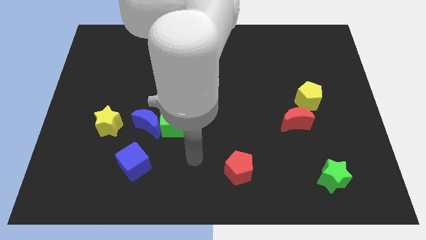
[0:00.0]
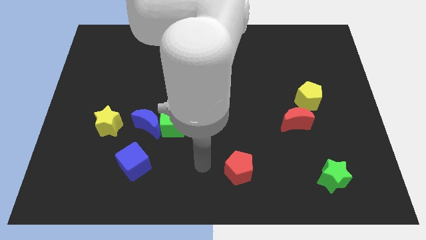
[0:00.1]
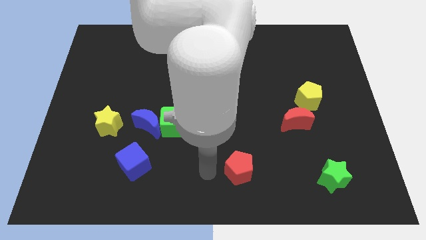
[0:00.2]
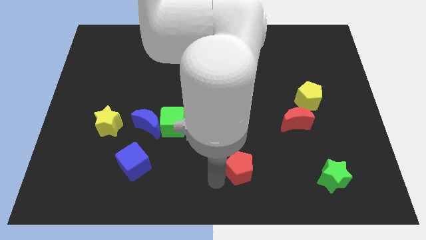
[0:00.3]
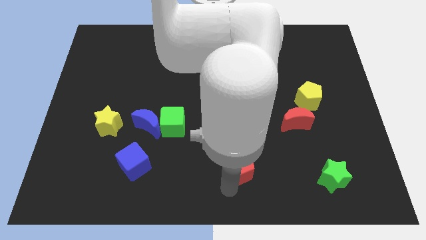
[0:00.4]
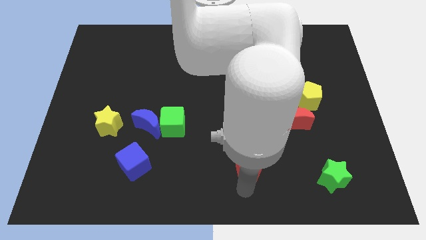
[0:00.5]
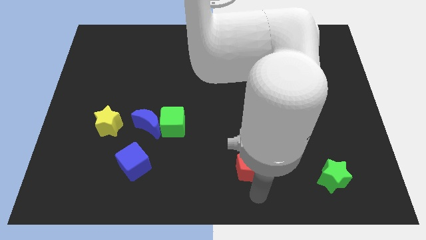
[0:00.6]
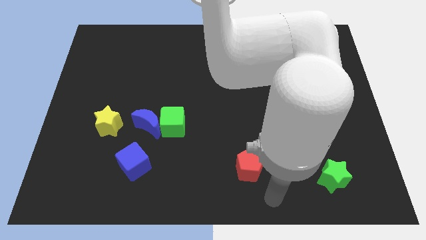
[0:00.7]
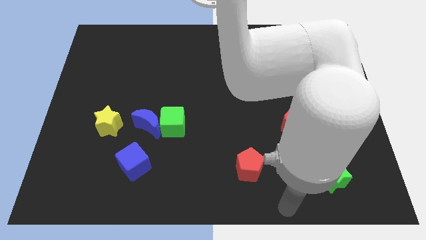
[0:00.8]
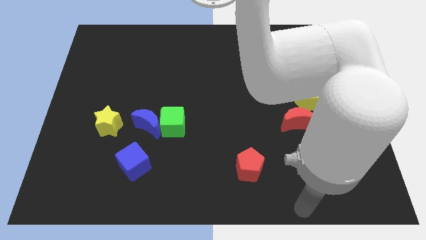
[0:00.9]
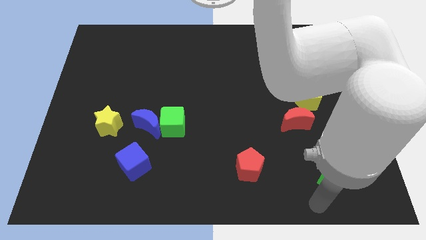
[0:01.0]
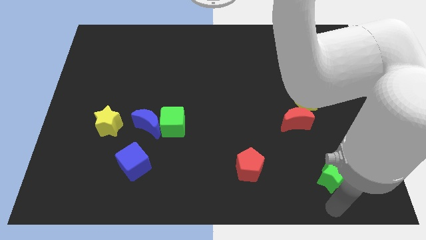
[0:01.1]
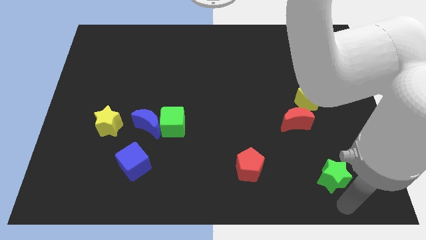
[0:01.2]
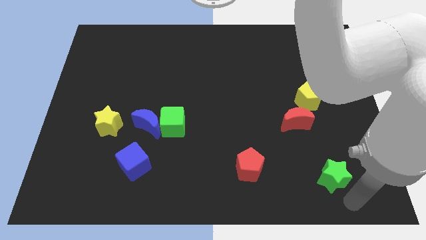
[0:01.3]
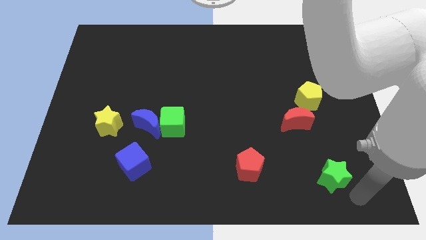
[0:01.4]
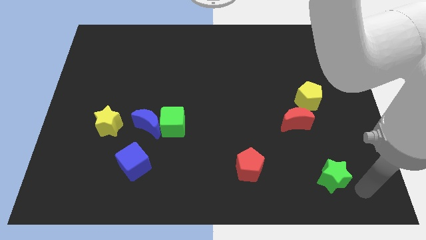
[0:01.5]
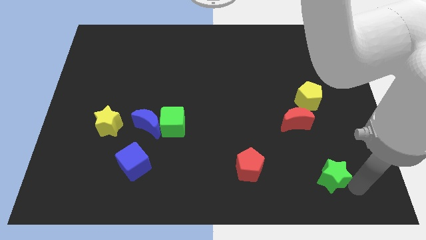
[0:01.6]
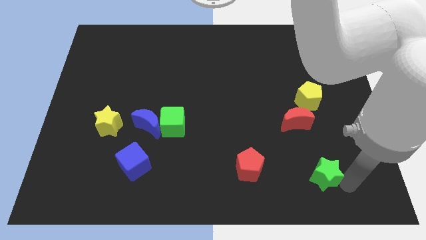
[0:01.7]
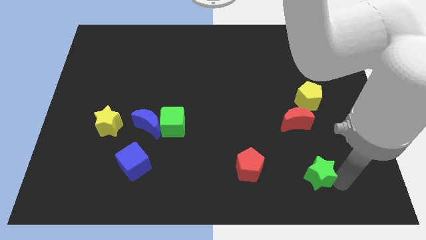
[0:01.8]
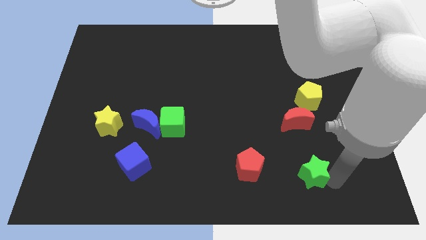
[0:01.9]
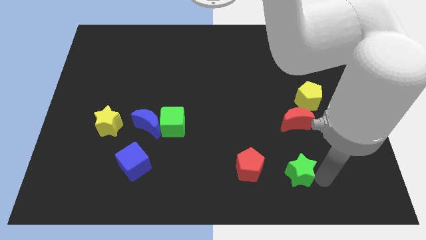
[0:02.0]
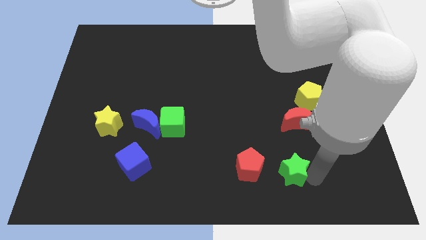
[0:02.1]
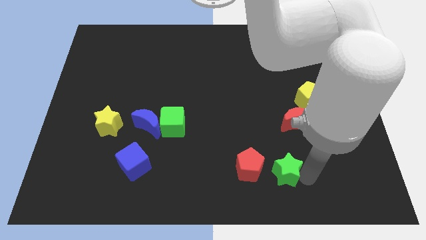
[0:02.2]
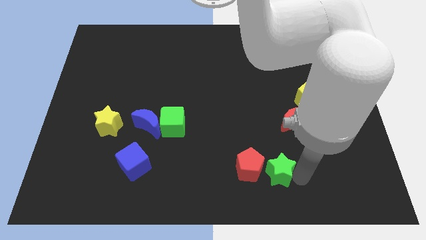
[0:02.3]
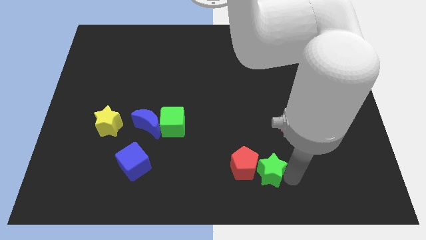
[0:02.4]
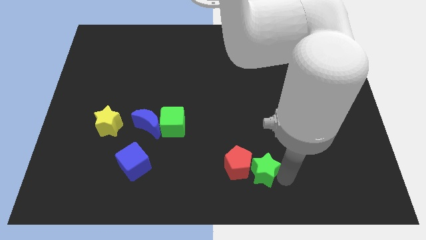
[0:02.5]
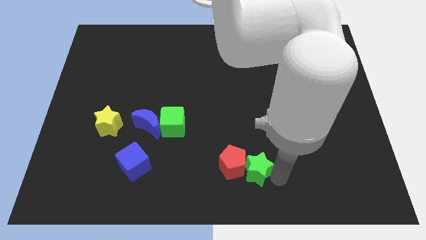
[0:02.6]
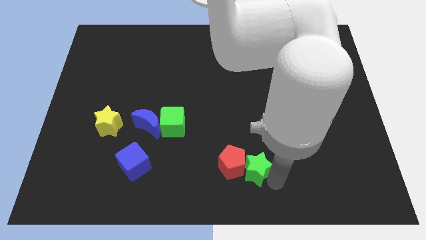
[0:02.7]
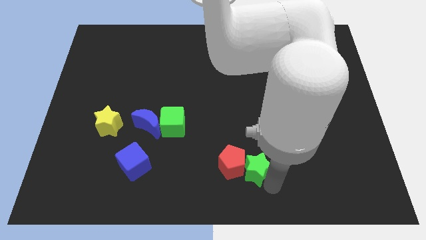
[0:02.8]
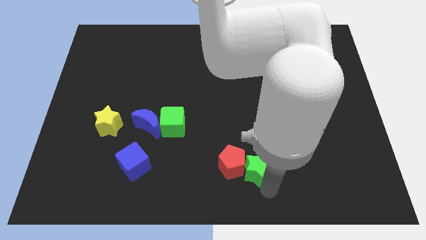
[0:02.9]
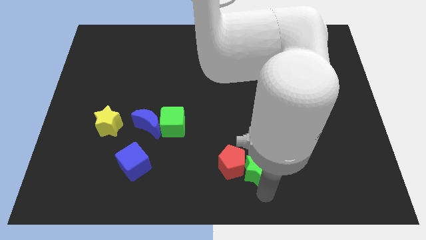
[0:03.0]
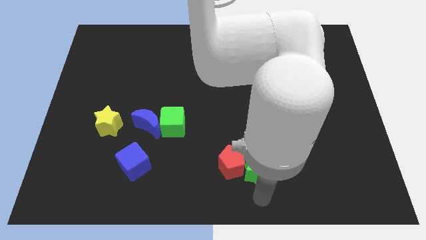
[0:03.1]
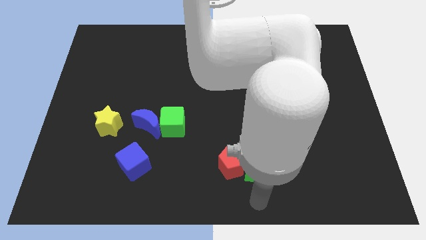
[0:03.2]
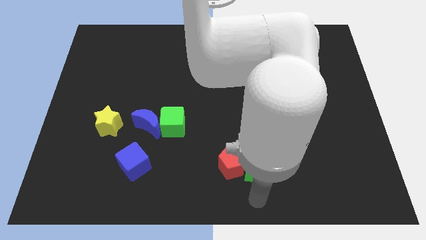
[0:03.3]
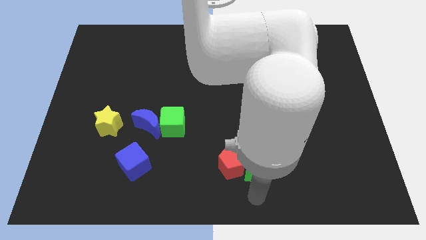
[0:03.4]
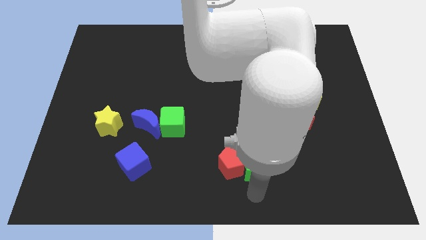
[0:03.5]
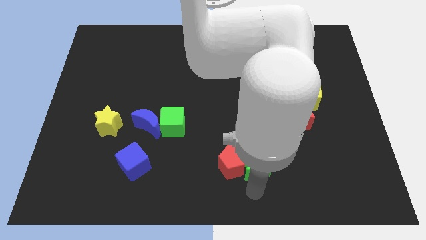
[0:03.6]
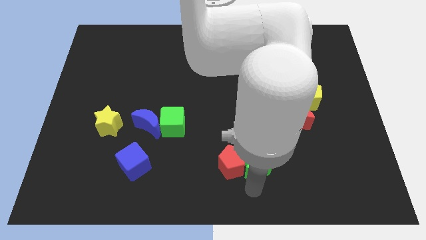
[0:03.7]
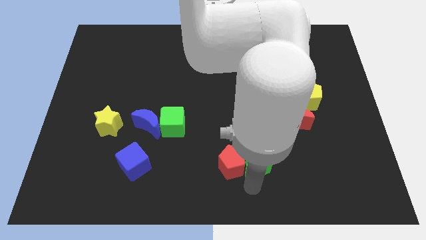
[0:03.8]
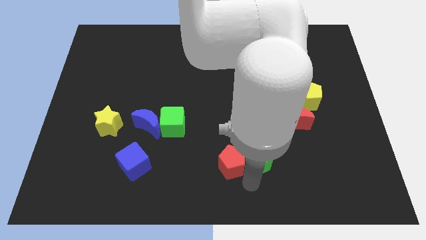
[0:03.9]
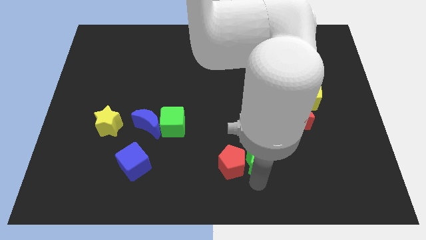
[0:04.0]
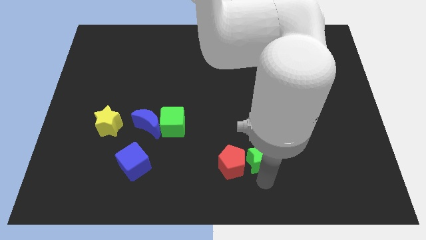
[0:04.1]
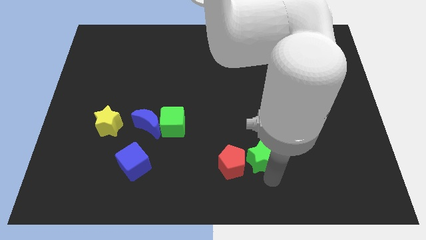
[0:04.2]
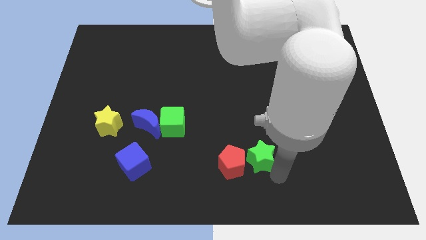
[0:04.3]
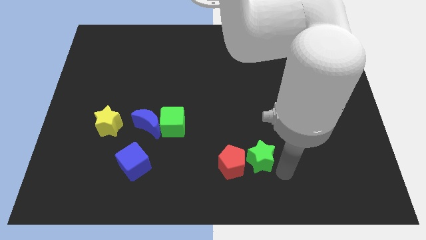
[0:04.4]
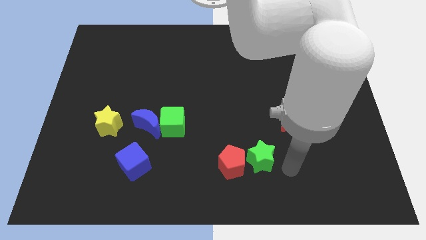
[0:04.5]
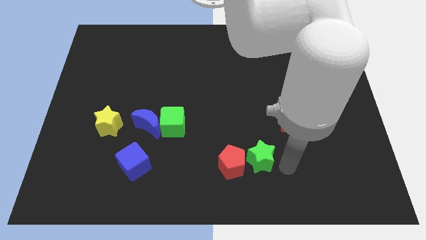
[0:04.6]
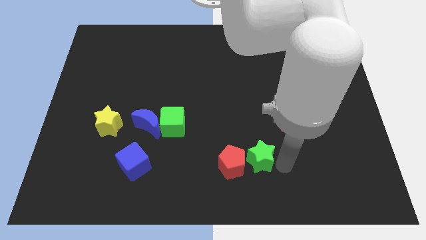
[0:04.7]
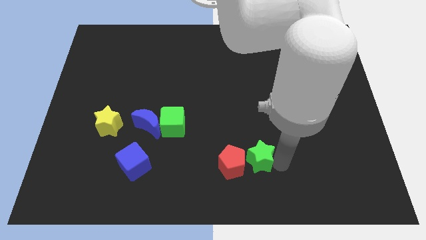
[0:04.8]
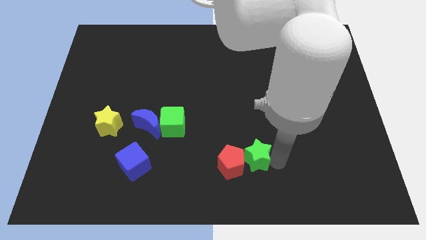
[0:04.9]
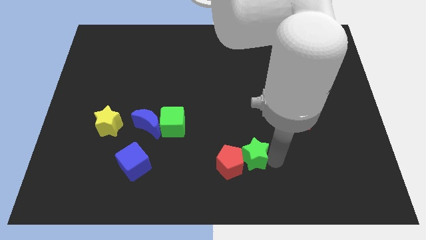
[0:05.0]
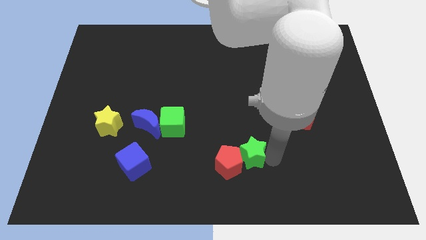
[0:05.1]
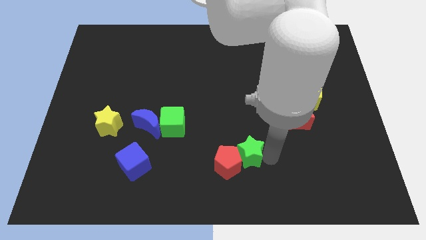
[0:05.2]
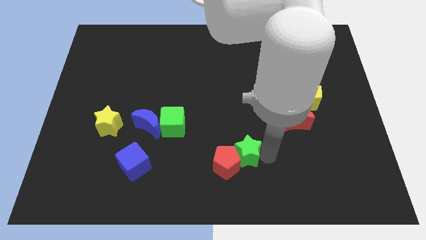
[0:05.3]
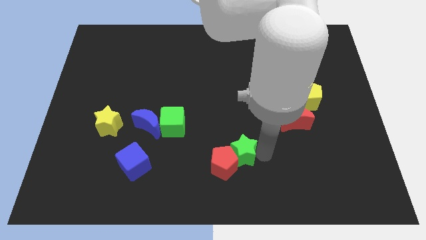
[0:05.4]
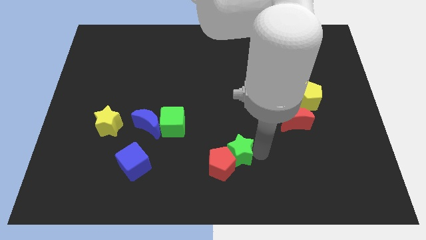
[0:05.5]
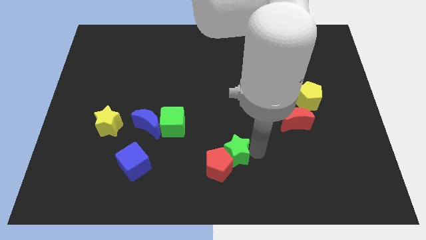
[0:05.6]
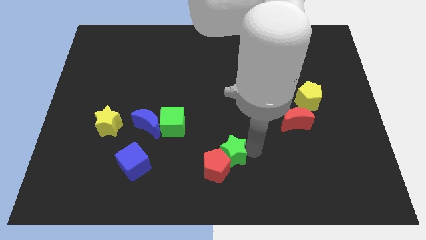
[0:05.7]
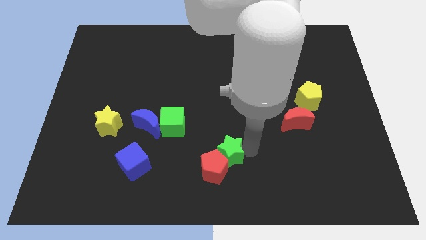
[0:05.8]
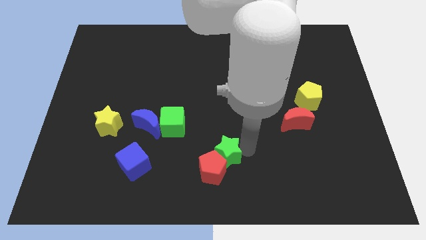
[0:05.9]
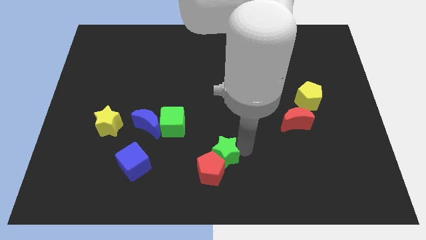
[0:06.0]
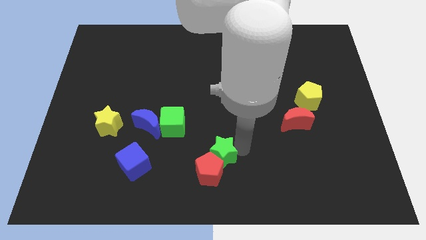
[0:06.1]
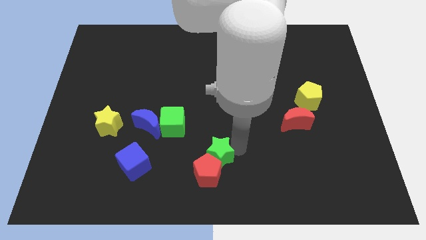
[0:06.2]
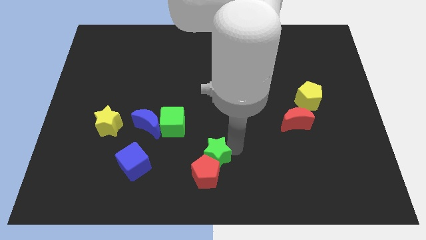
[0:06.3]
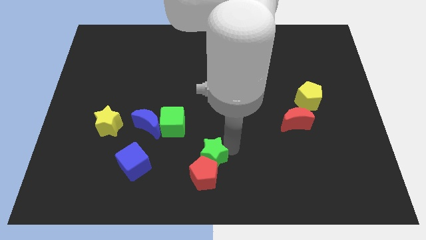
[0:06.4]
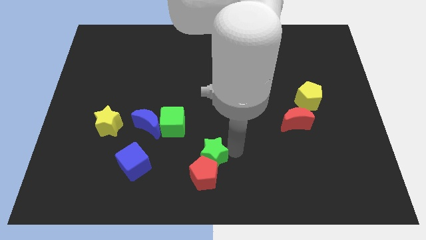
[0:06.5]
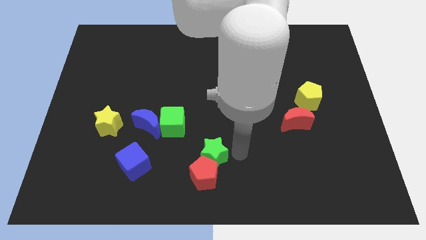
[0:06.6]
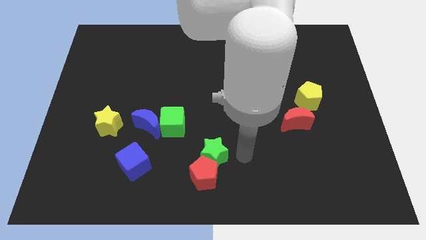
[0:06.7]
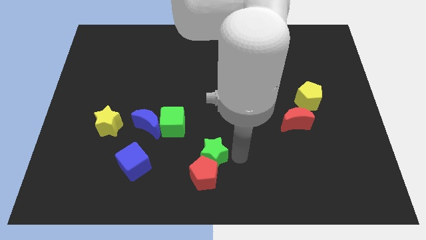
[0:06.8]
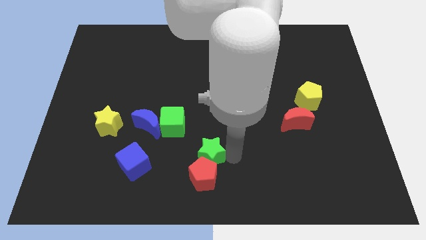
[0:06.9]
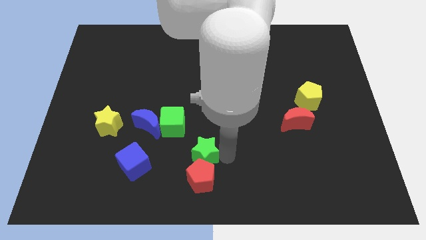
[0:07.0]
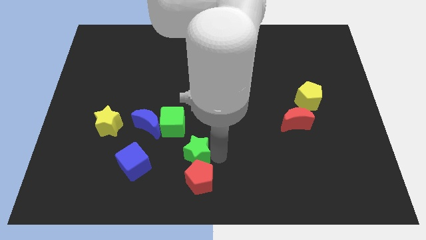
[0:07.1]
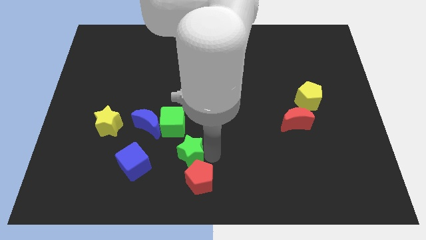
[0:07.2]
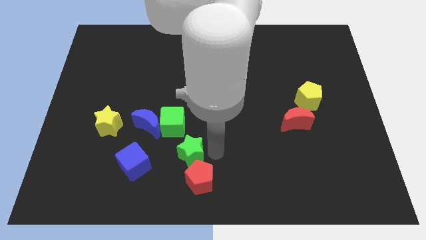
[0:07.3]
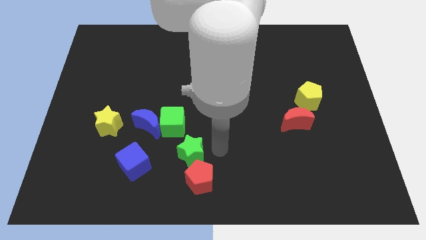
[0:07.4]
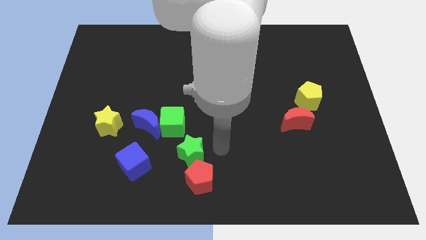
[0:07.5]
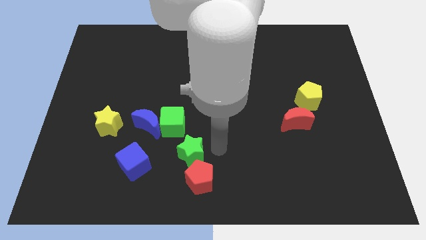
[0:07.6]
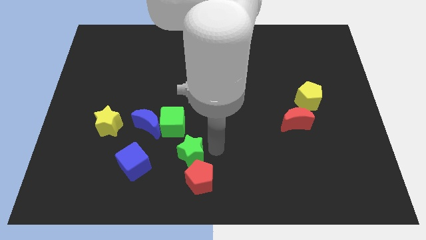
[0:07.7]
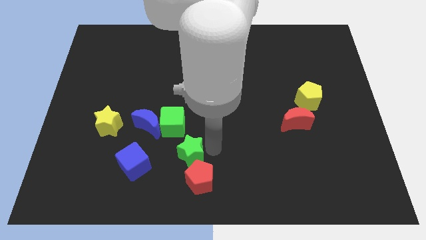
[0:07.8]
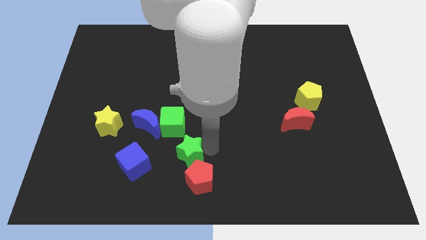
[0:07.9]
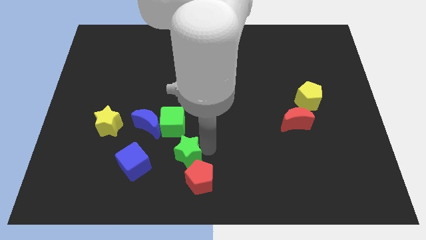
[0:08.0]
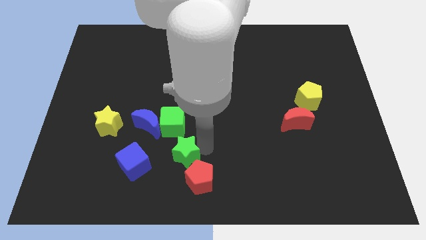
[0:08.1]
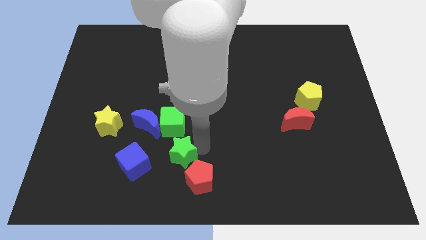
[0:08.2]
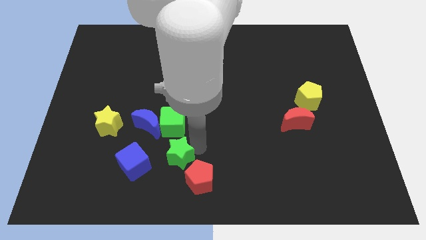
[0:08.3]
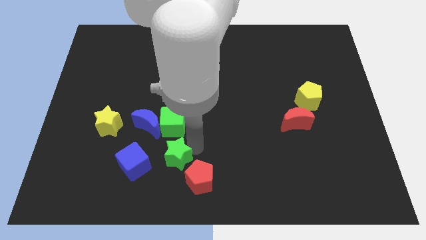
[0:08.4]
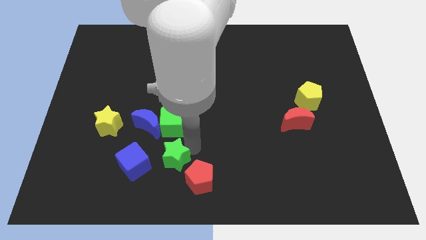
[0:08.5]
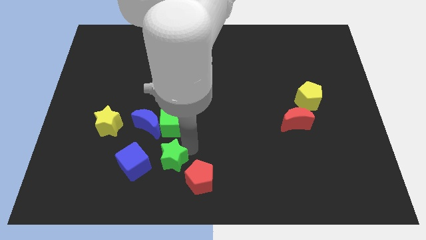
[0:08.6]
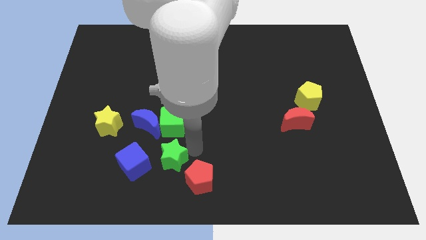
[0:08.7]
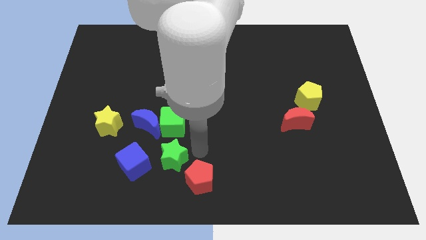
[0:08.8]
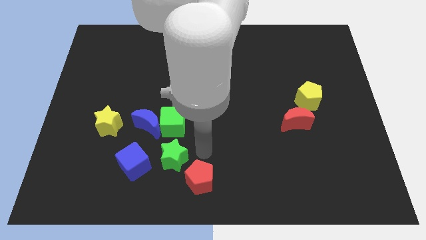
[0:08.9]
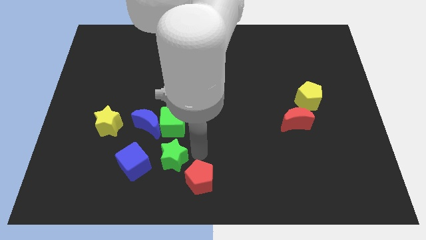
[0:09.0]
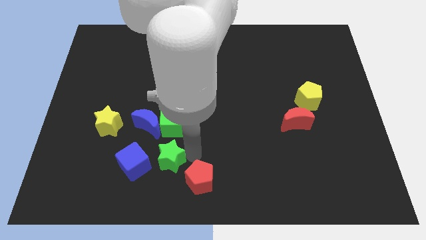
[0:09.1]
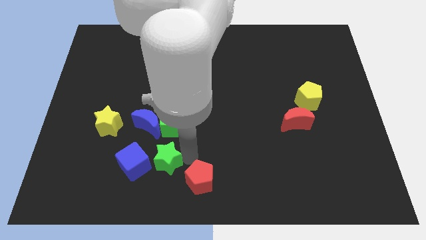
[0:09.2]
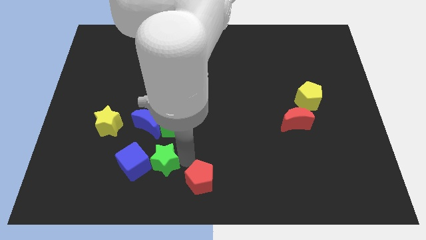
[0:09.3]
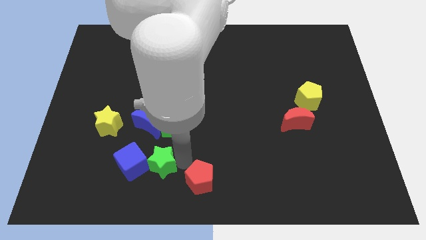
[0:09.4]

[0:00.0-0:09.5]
slide the green star close to the blue cube
